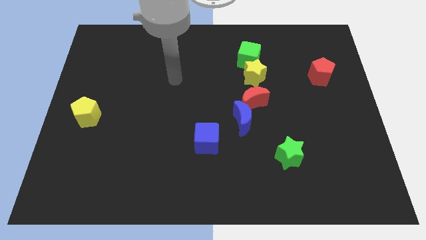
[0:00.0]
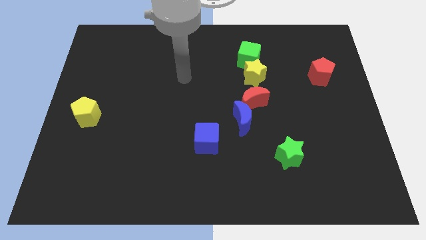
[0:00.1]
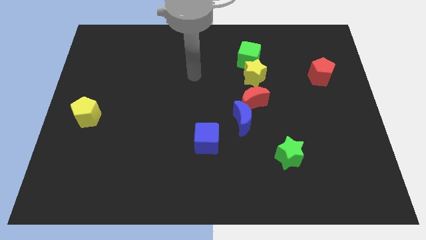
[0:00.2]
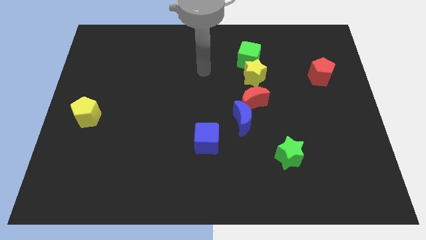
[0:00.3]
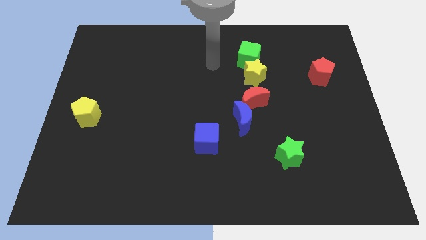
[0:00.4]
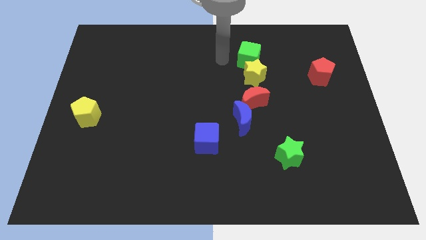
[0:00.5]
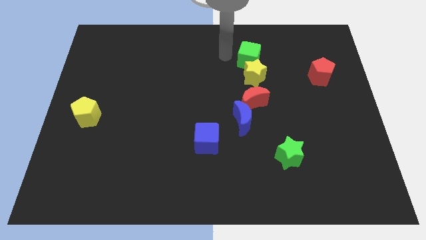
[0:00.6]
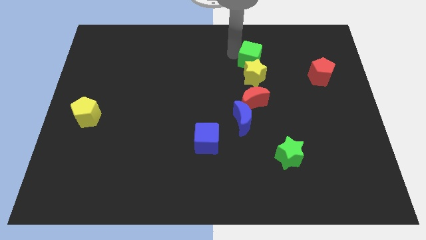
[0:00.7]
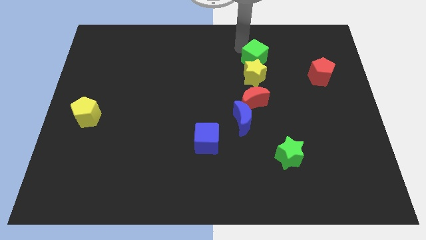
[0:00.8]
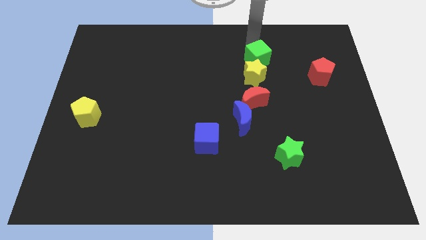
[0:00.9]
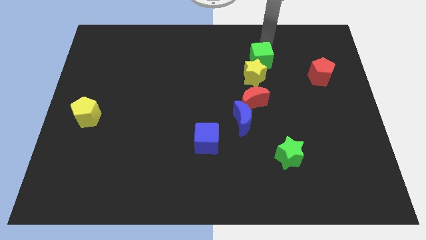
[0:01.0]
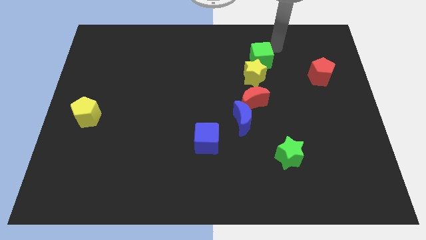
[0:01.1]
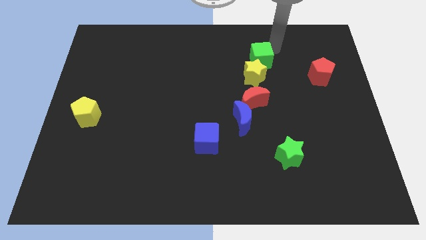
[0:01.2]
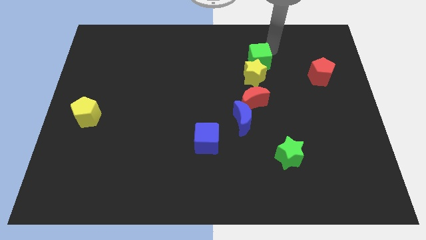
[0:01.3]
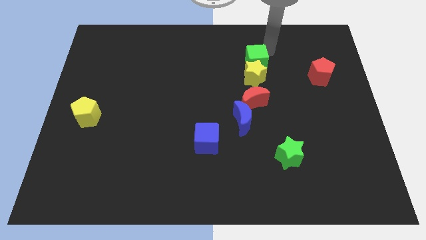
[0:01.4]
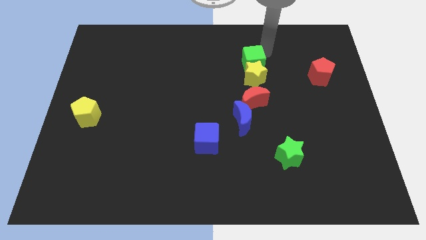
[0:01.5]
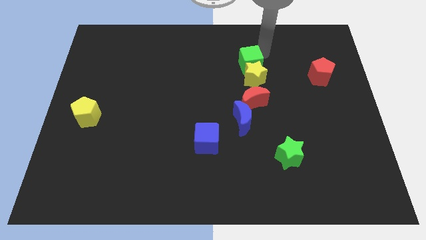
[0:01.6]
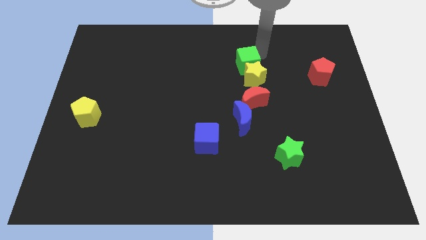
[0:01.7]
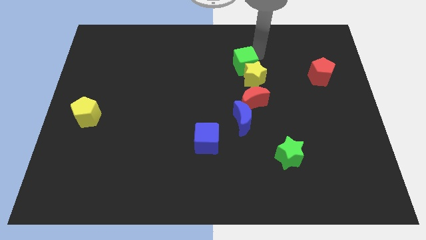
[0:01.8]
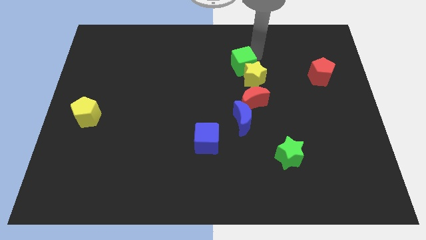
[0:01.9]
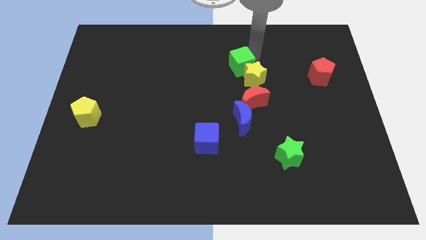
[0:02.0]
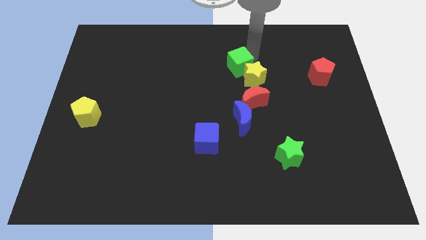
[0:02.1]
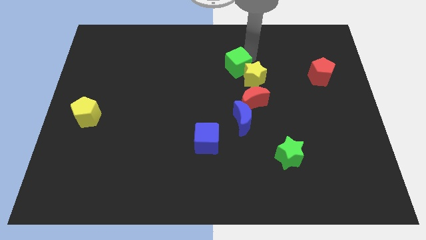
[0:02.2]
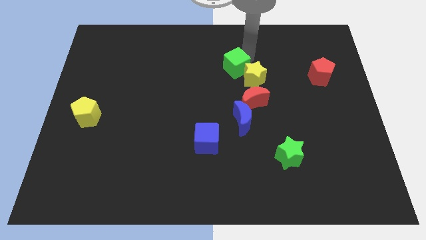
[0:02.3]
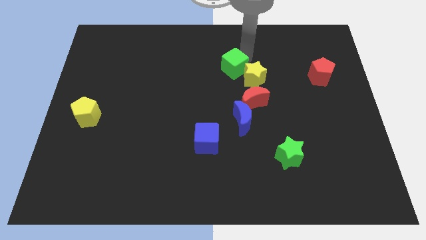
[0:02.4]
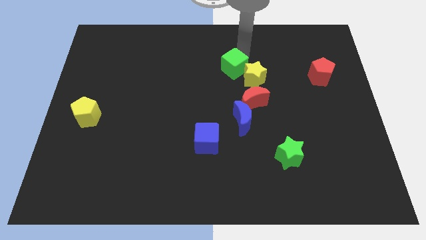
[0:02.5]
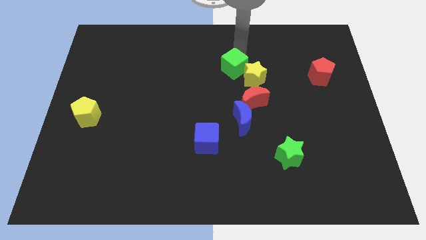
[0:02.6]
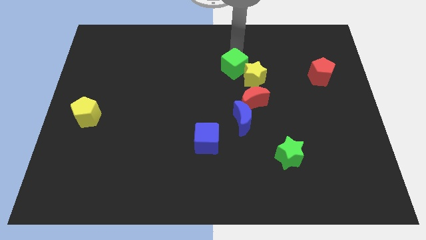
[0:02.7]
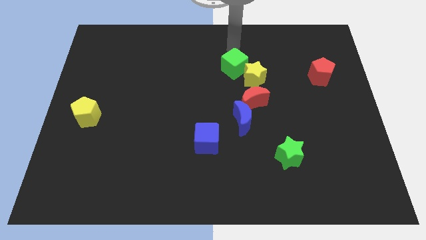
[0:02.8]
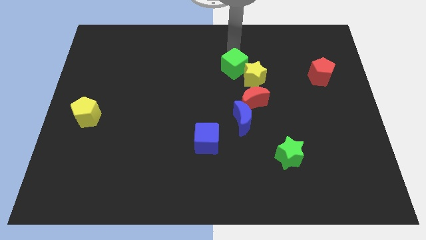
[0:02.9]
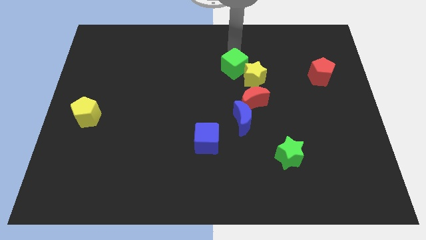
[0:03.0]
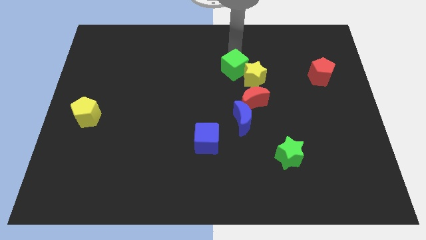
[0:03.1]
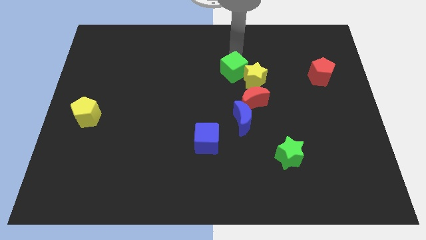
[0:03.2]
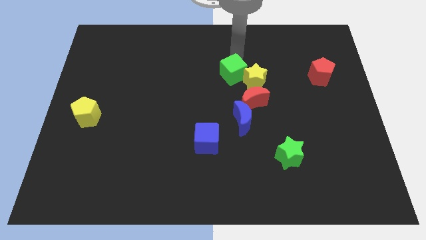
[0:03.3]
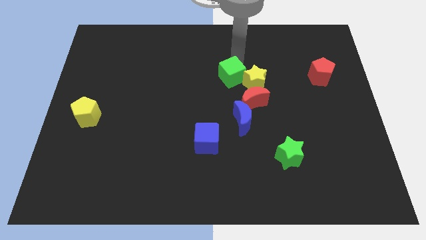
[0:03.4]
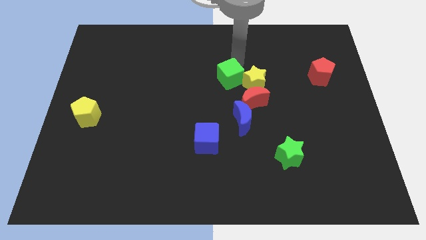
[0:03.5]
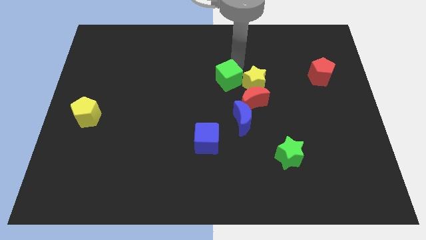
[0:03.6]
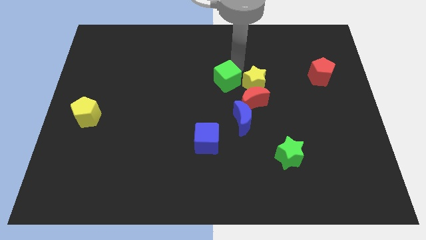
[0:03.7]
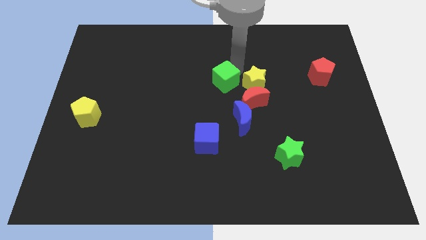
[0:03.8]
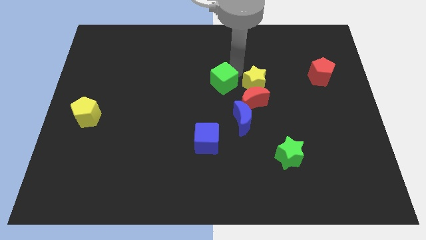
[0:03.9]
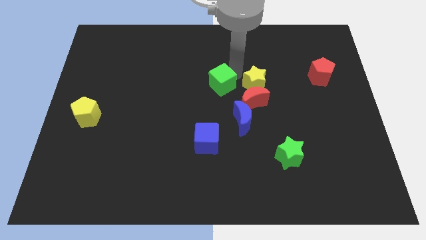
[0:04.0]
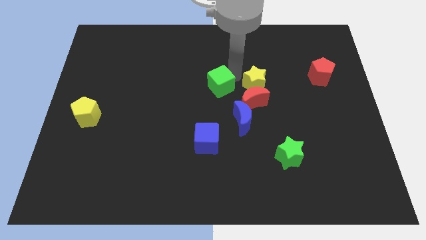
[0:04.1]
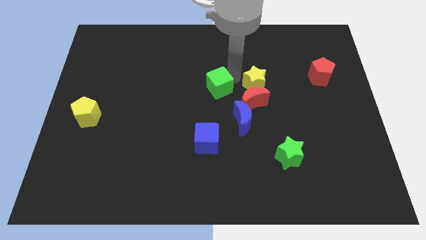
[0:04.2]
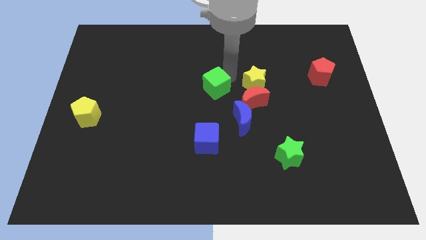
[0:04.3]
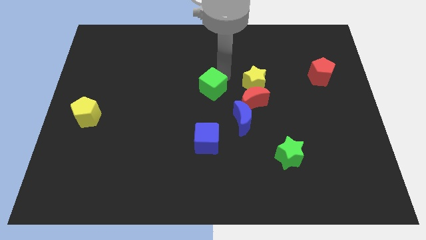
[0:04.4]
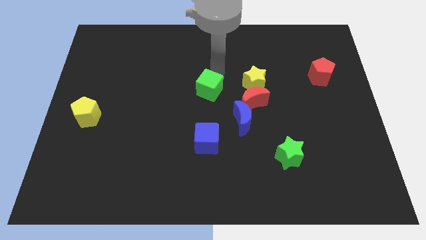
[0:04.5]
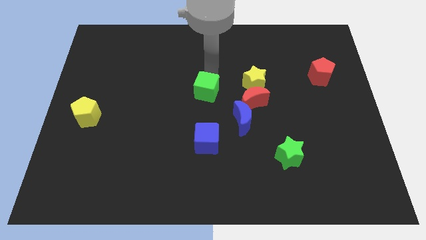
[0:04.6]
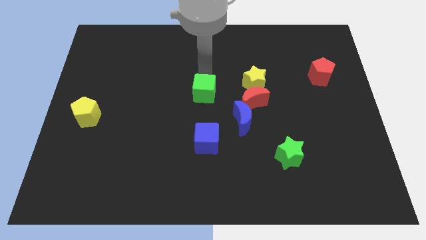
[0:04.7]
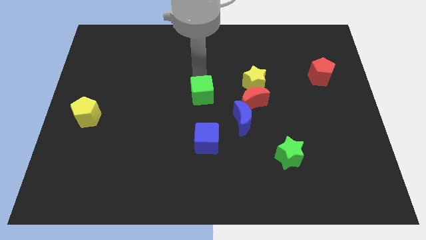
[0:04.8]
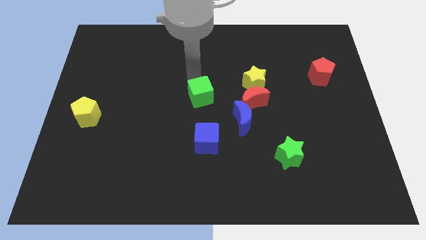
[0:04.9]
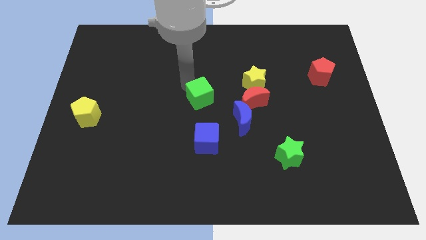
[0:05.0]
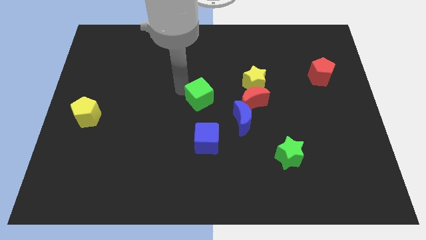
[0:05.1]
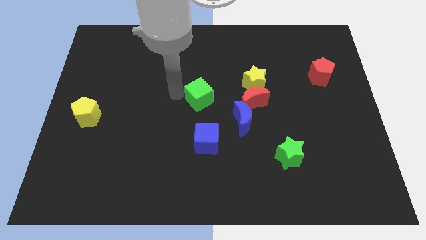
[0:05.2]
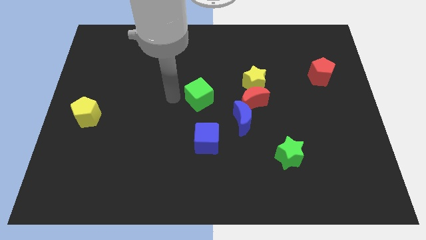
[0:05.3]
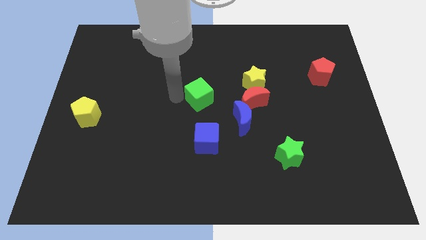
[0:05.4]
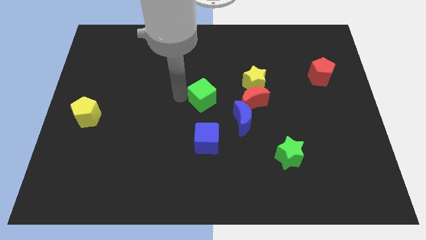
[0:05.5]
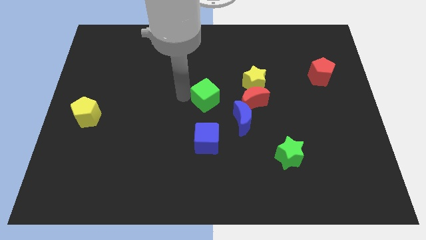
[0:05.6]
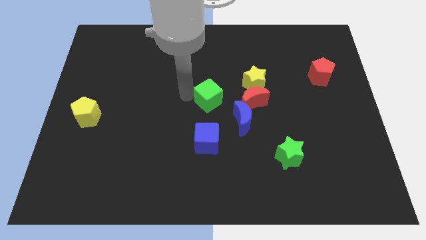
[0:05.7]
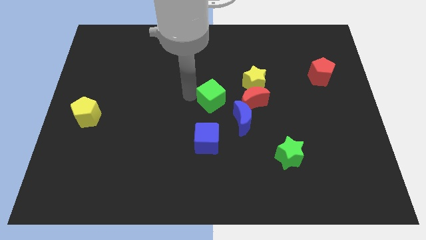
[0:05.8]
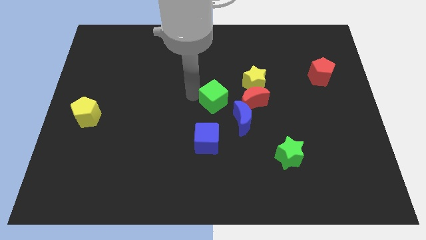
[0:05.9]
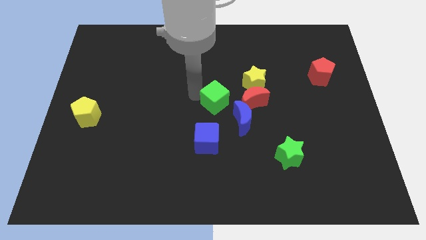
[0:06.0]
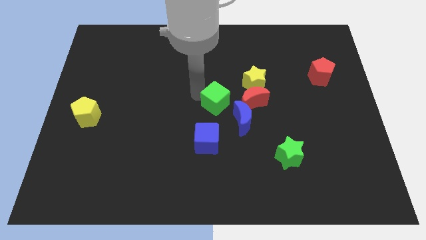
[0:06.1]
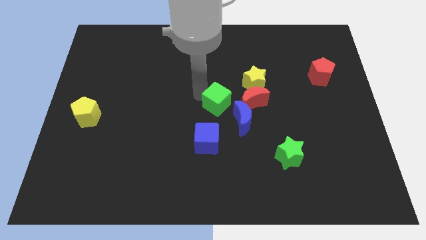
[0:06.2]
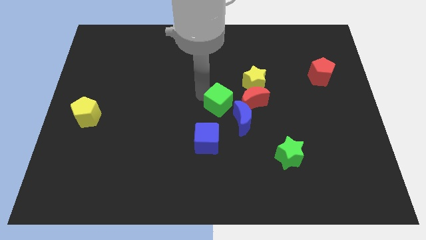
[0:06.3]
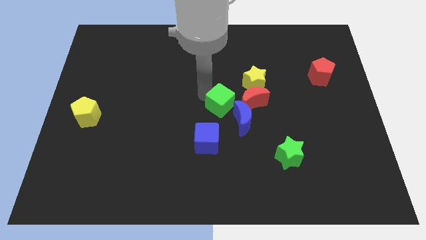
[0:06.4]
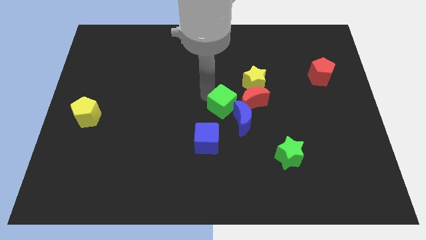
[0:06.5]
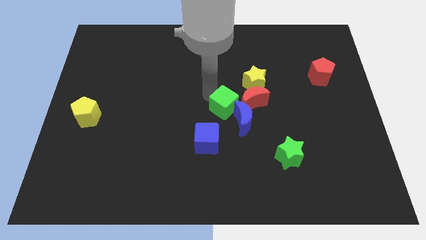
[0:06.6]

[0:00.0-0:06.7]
move the green cube towards the blue moon
